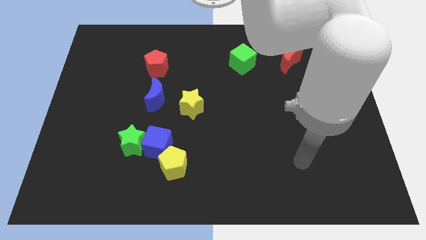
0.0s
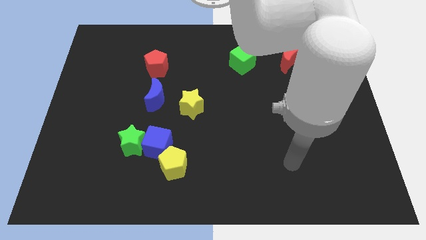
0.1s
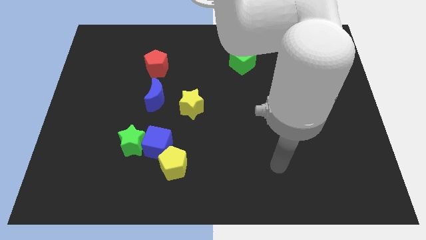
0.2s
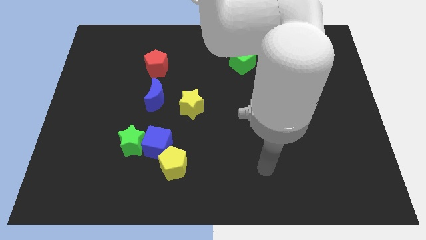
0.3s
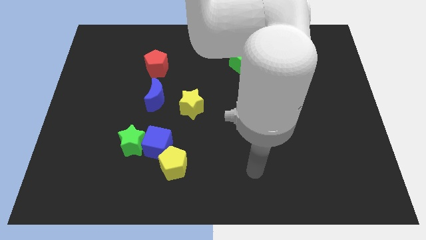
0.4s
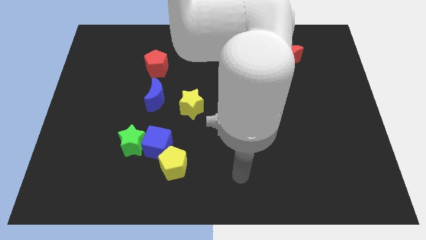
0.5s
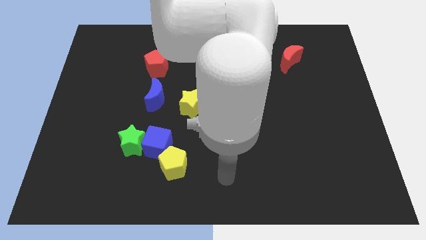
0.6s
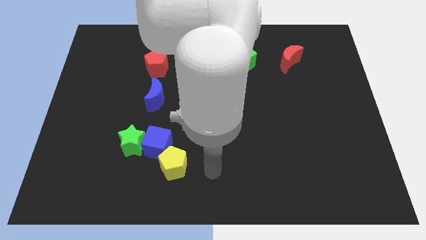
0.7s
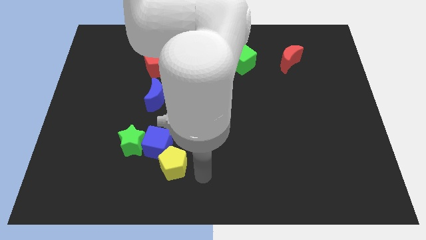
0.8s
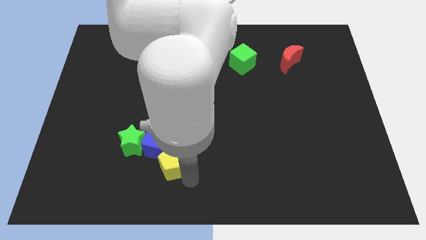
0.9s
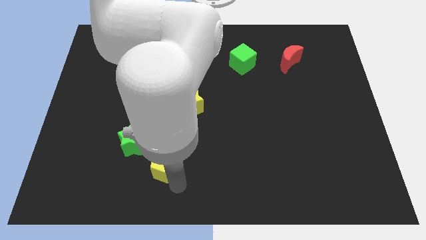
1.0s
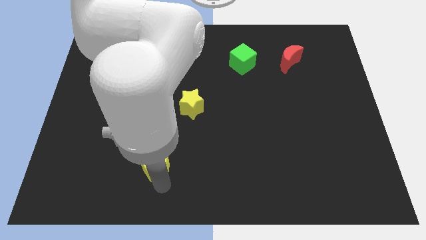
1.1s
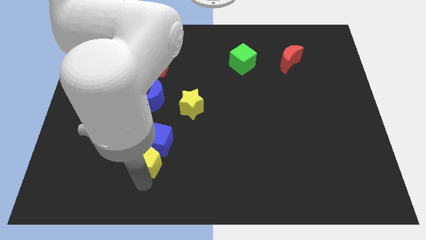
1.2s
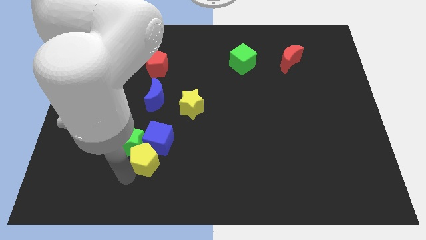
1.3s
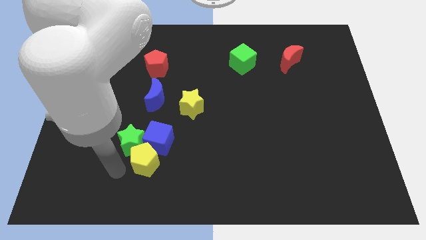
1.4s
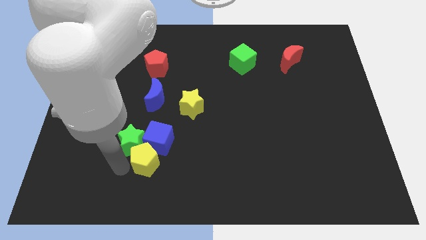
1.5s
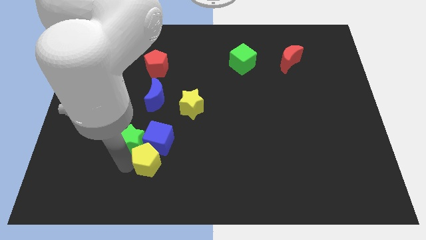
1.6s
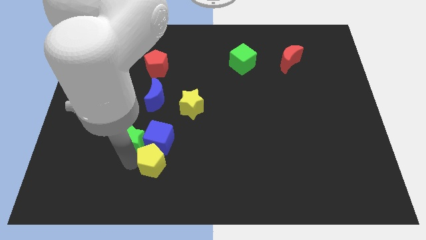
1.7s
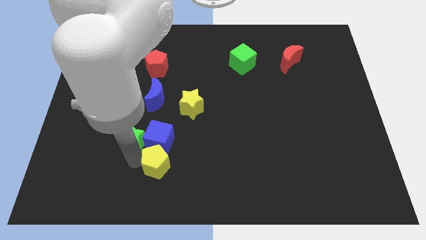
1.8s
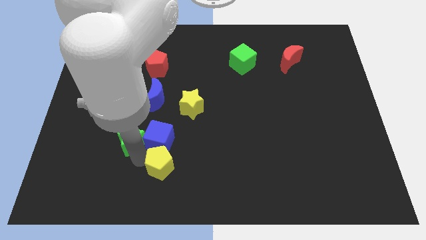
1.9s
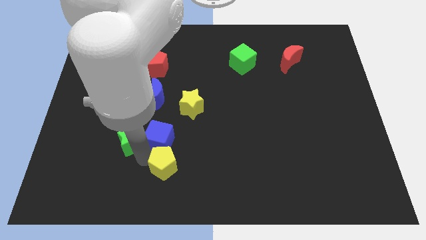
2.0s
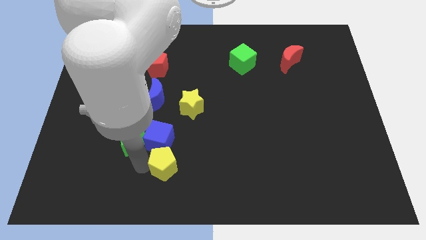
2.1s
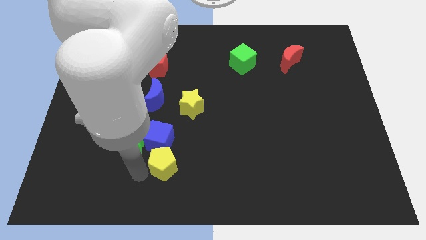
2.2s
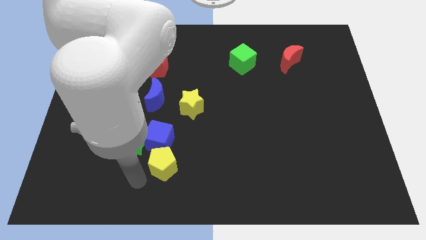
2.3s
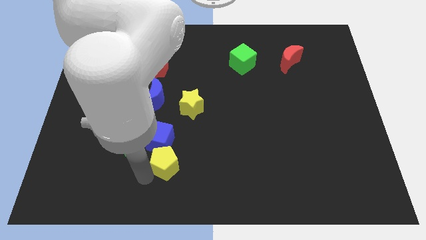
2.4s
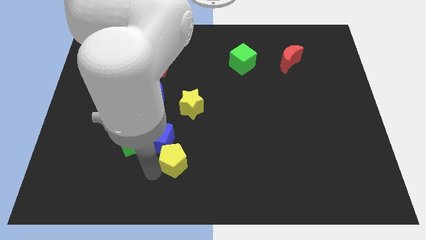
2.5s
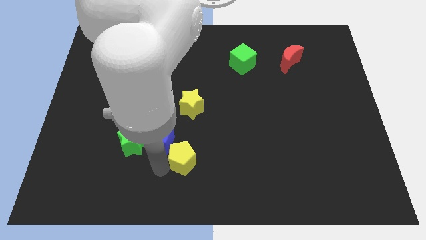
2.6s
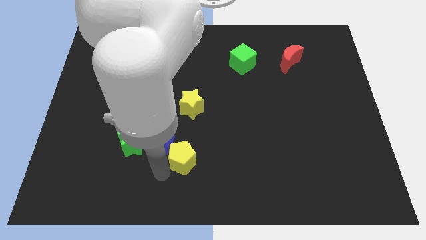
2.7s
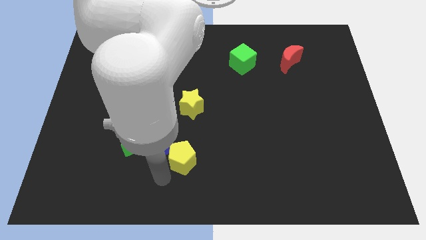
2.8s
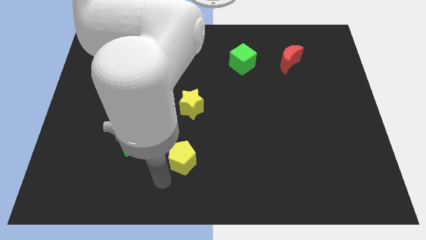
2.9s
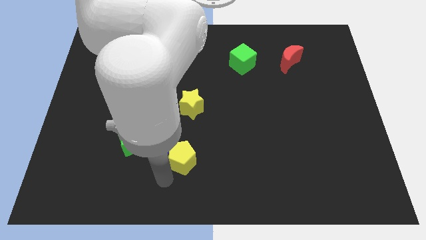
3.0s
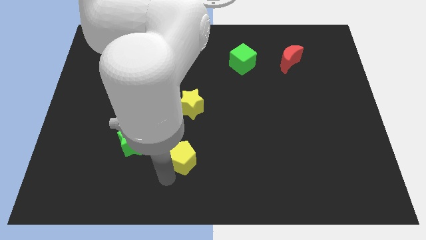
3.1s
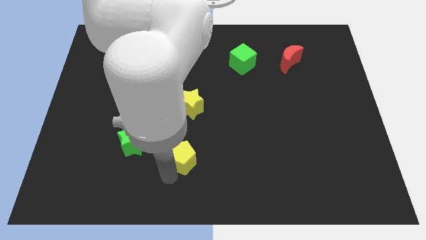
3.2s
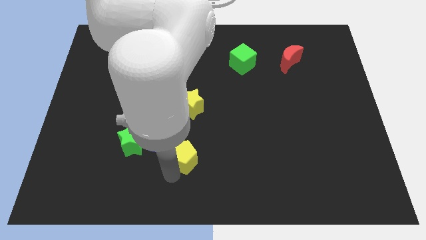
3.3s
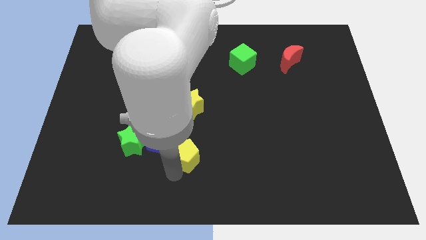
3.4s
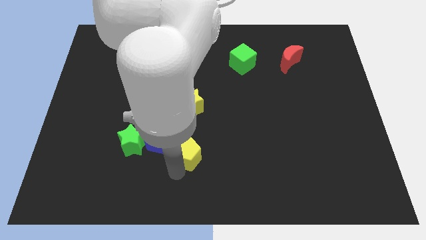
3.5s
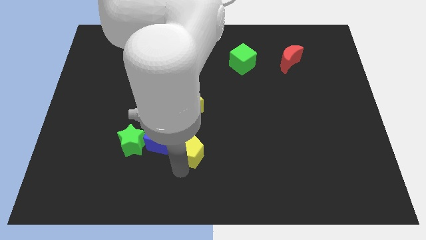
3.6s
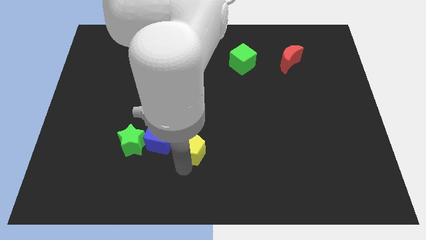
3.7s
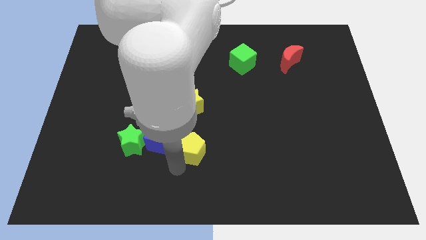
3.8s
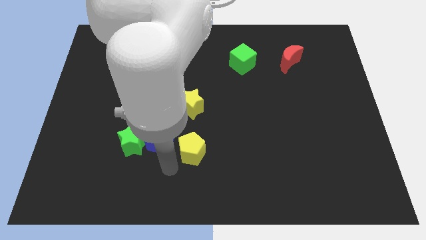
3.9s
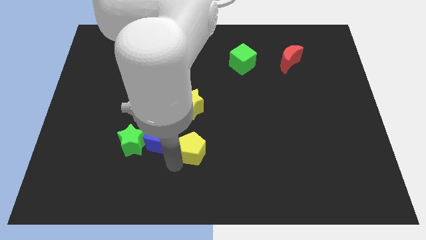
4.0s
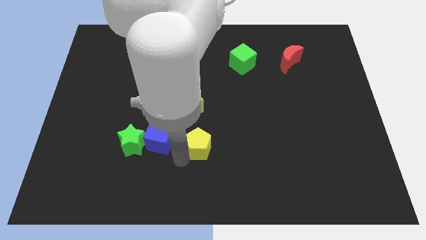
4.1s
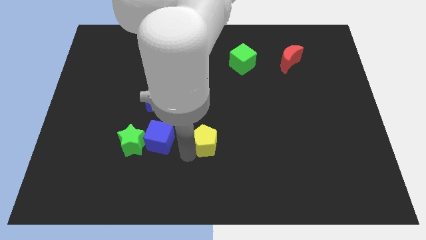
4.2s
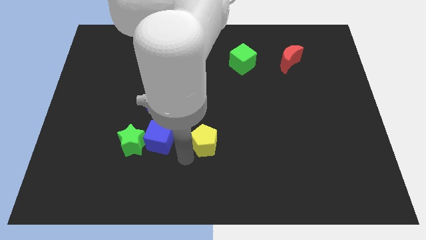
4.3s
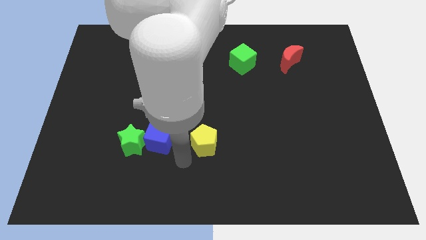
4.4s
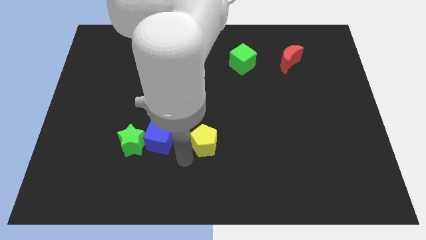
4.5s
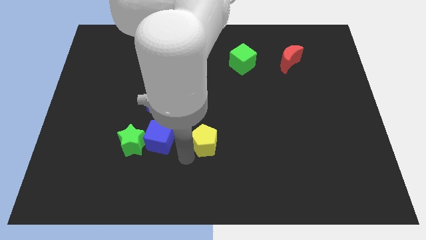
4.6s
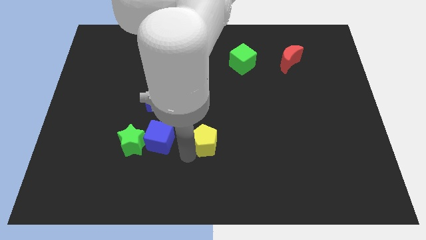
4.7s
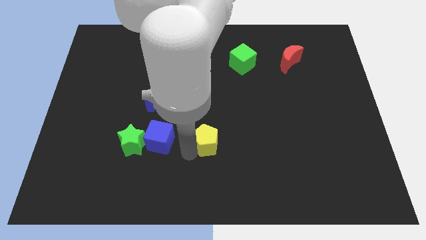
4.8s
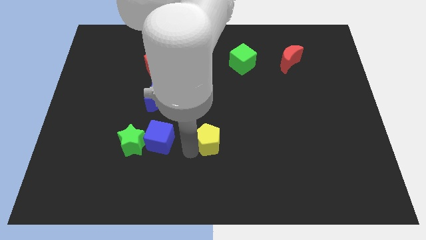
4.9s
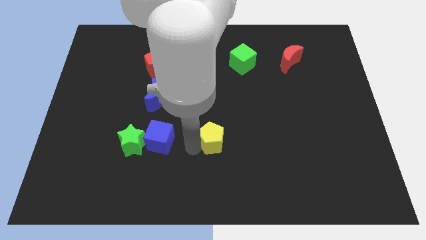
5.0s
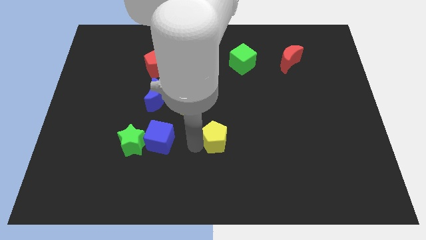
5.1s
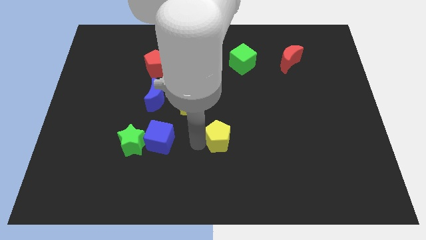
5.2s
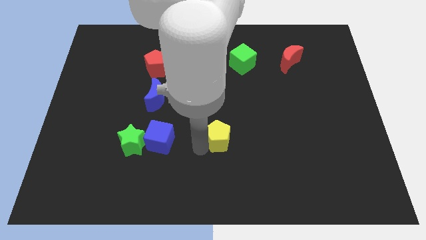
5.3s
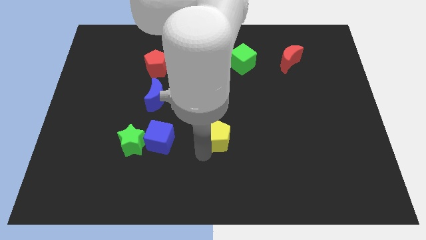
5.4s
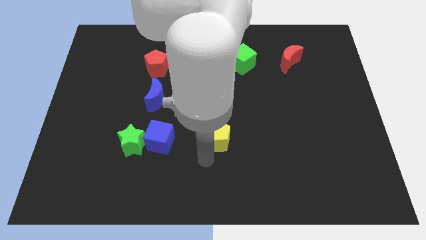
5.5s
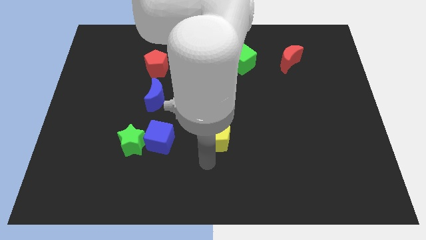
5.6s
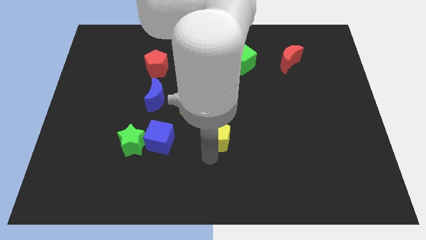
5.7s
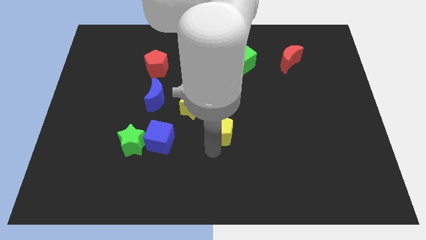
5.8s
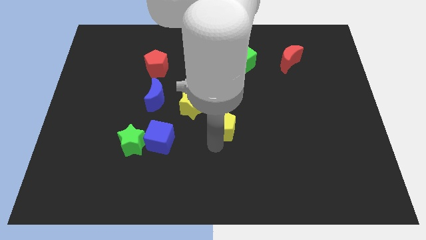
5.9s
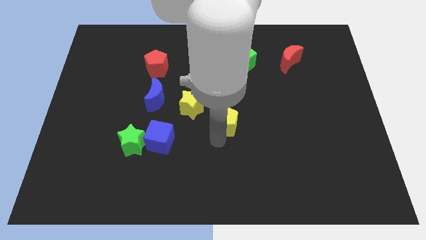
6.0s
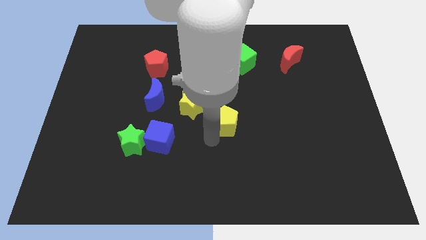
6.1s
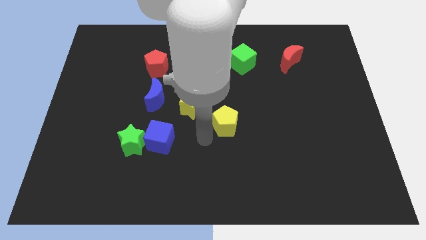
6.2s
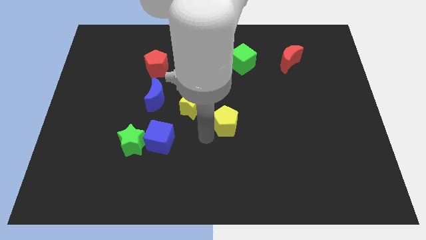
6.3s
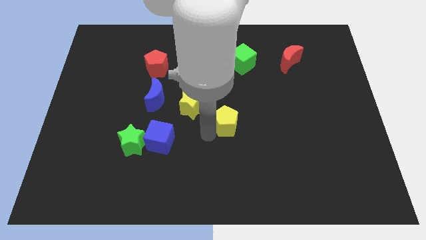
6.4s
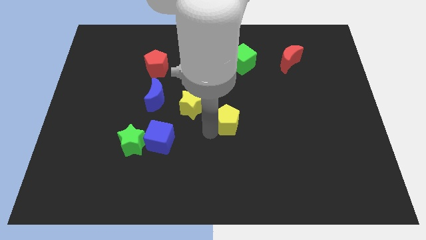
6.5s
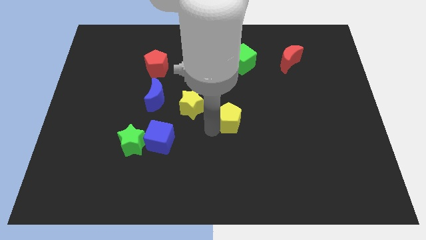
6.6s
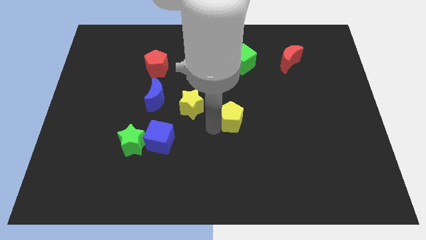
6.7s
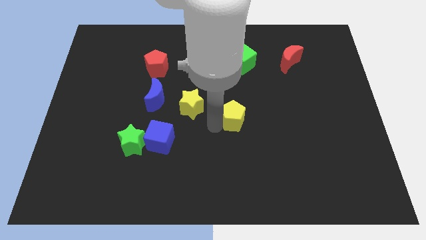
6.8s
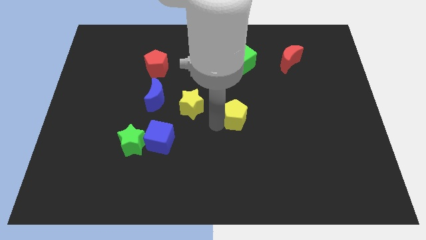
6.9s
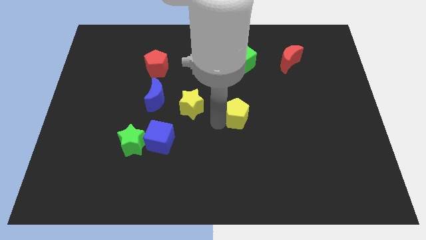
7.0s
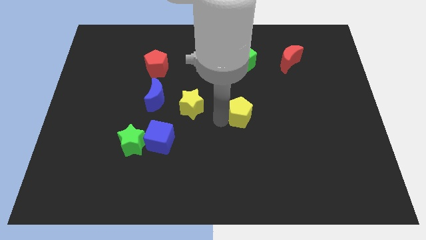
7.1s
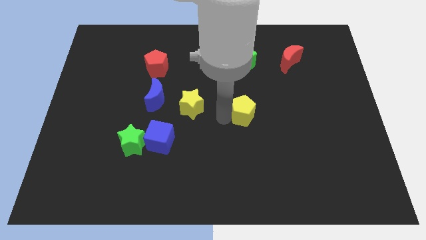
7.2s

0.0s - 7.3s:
move the yellow pentagon up and to the right diagonally

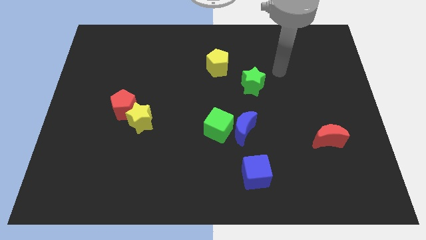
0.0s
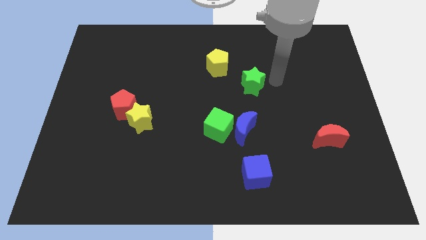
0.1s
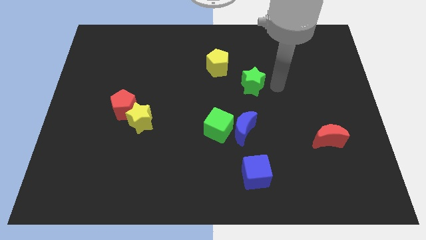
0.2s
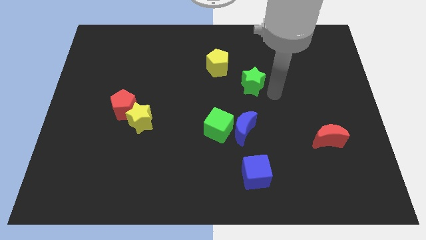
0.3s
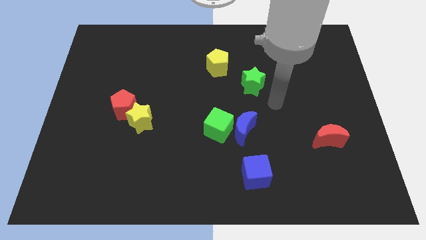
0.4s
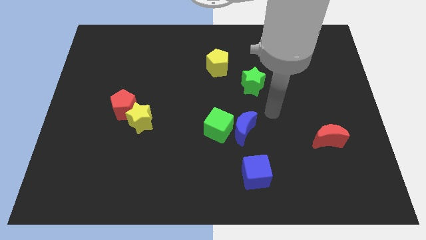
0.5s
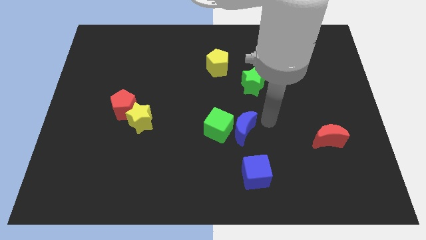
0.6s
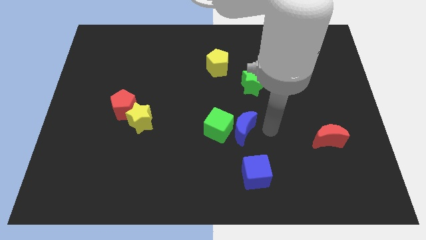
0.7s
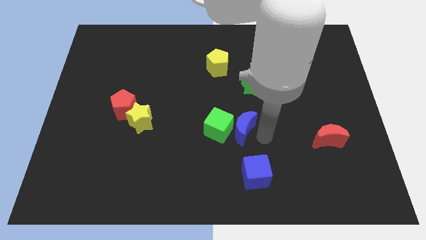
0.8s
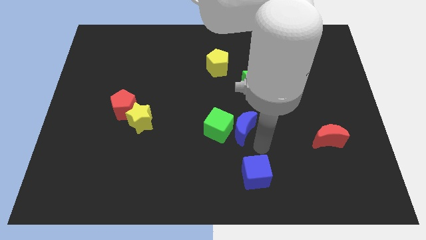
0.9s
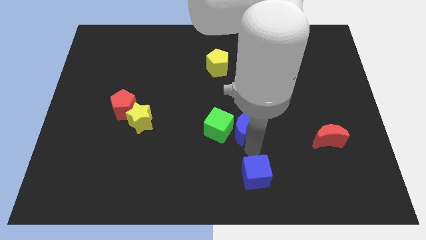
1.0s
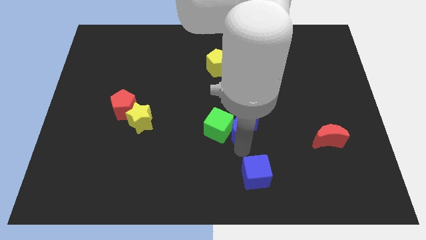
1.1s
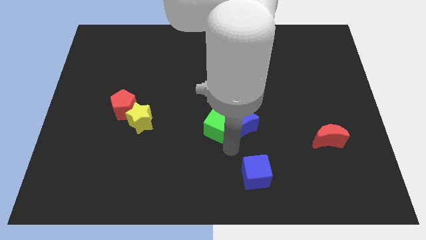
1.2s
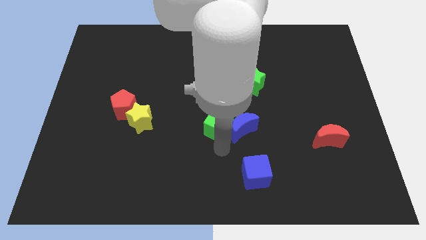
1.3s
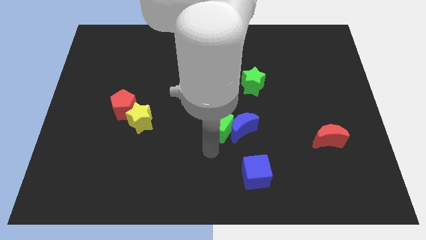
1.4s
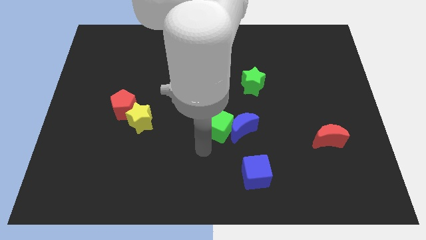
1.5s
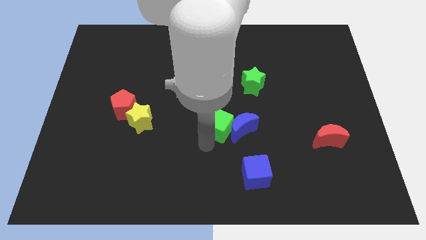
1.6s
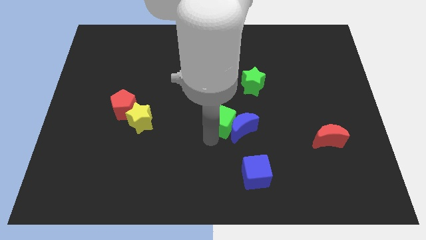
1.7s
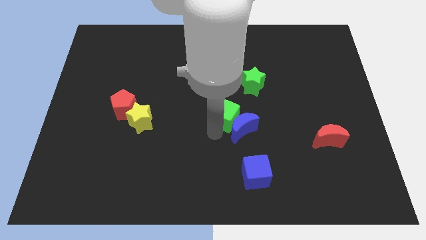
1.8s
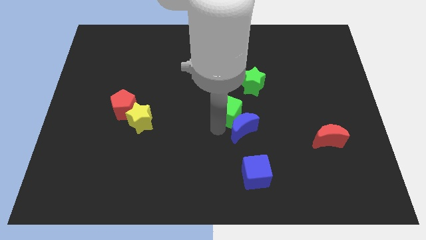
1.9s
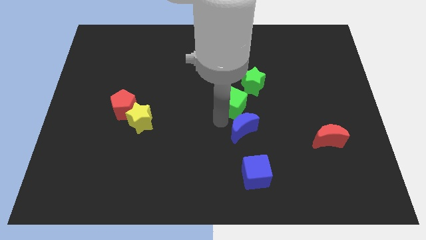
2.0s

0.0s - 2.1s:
slide the green cube up and then right a little bit
